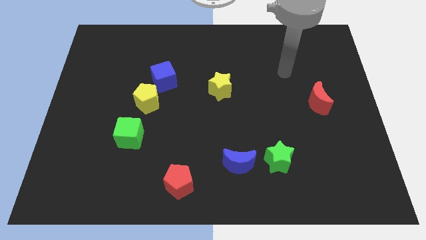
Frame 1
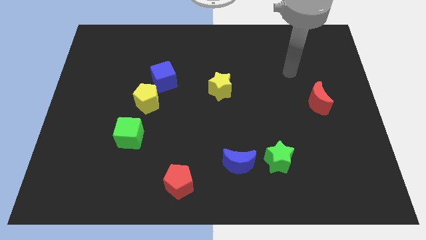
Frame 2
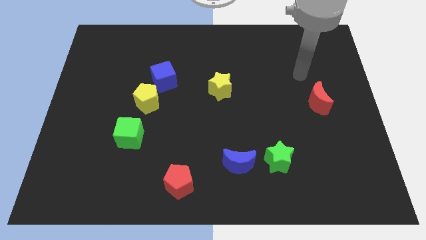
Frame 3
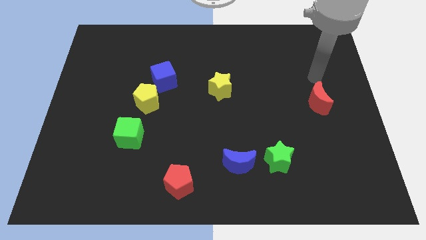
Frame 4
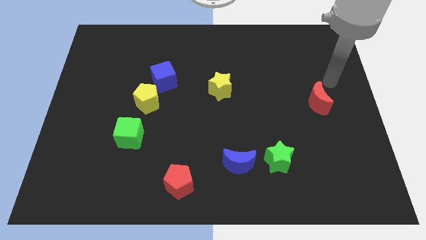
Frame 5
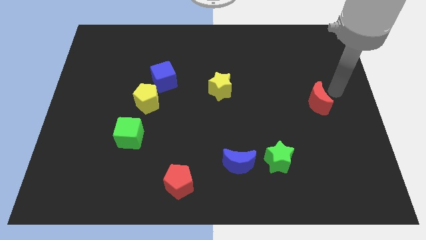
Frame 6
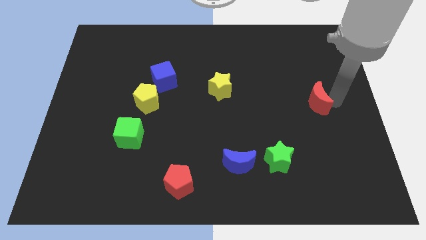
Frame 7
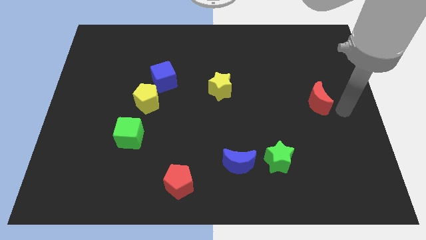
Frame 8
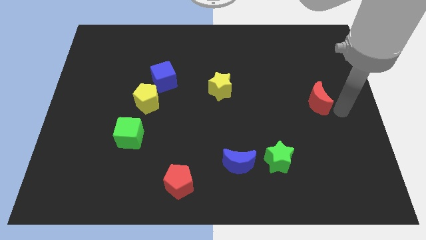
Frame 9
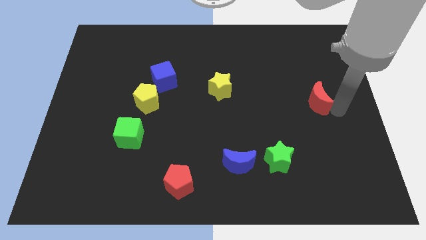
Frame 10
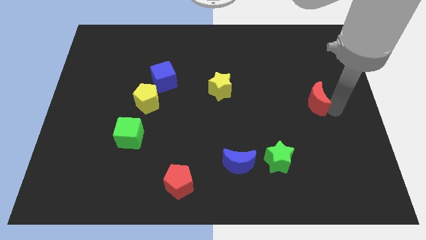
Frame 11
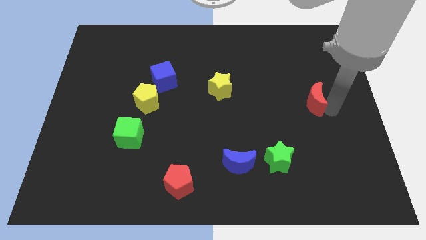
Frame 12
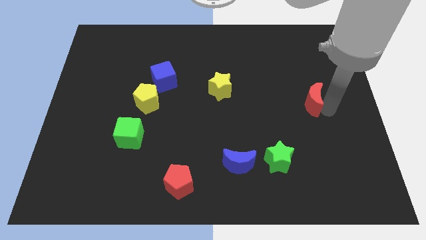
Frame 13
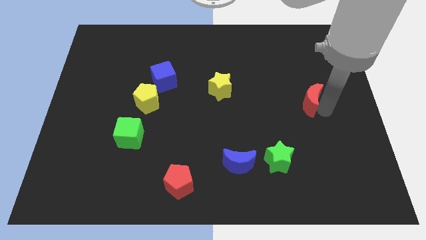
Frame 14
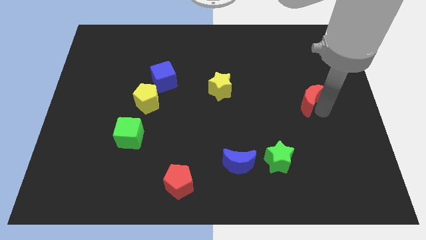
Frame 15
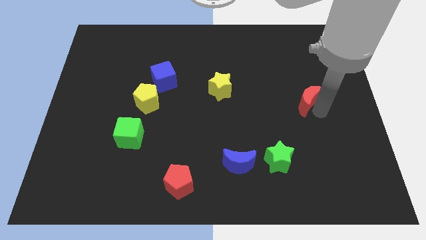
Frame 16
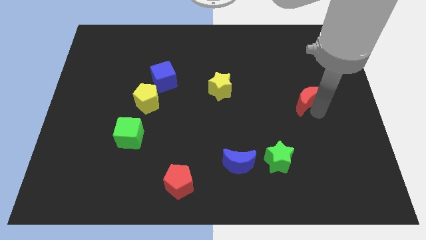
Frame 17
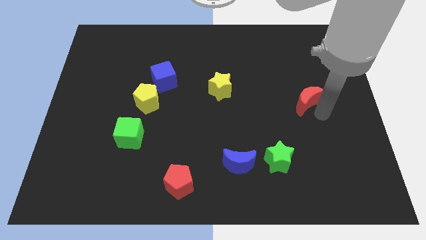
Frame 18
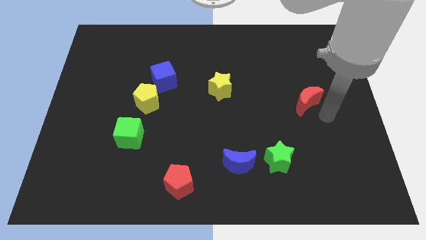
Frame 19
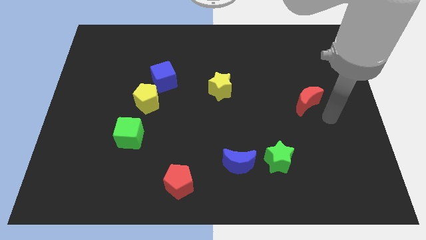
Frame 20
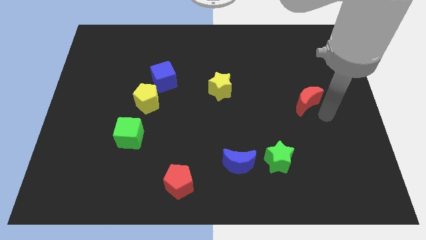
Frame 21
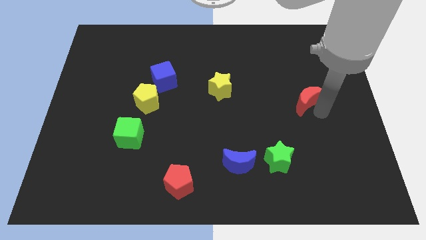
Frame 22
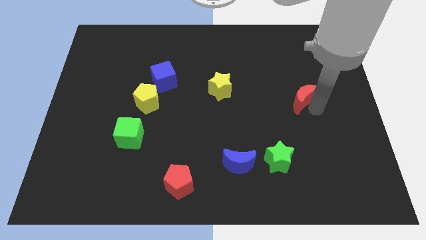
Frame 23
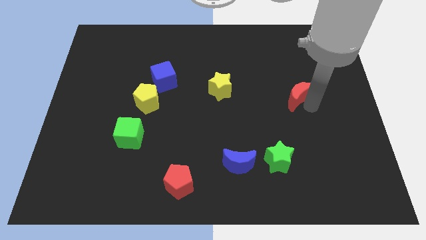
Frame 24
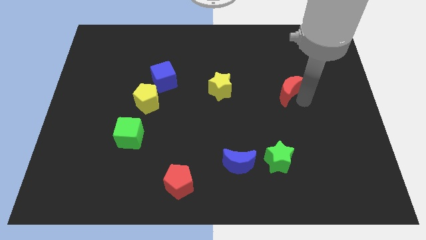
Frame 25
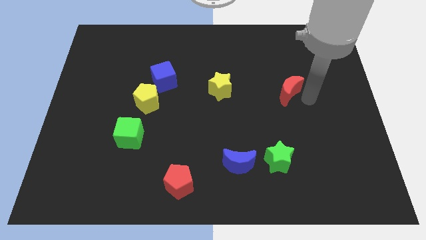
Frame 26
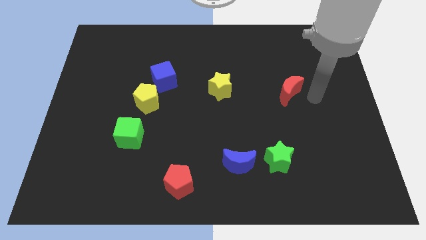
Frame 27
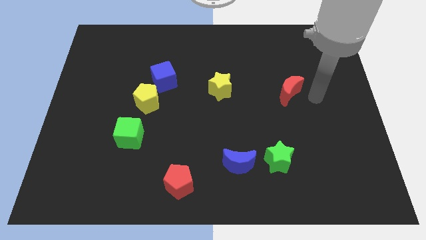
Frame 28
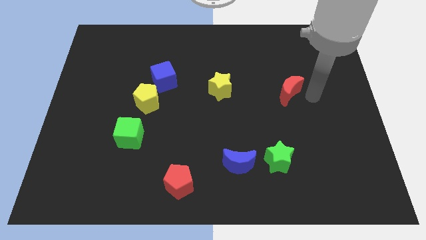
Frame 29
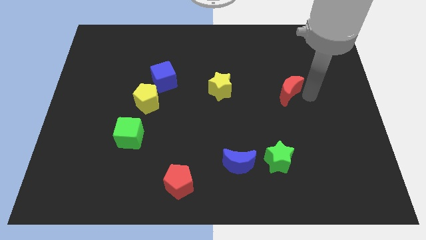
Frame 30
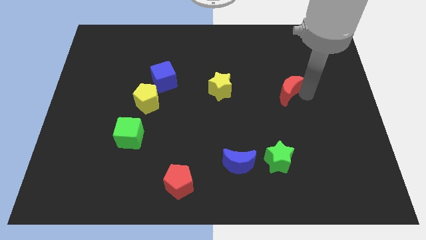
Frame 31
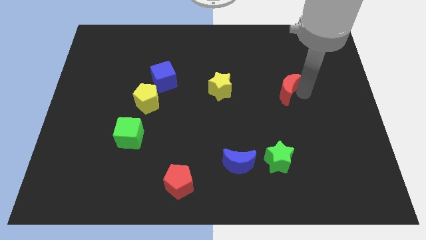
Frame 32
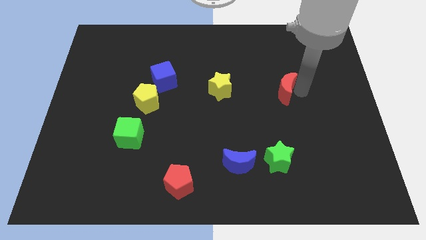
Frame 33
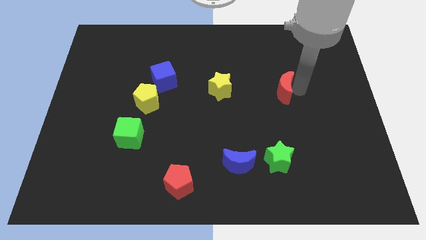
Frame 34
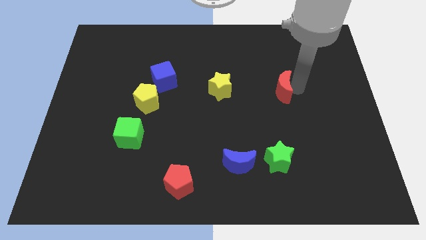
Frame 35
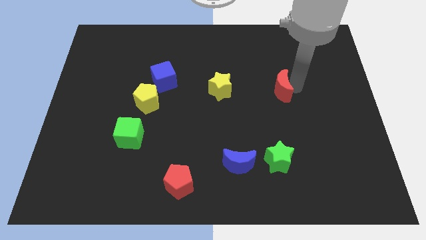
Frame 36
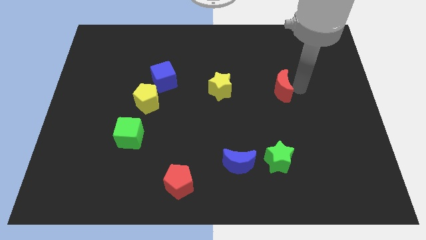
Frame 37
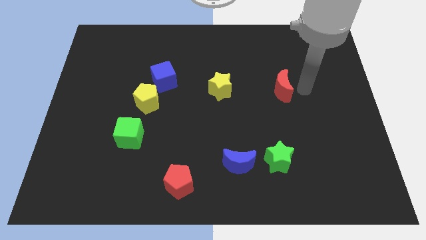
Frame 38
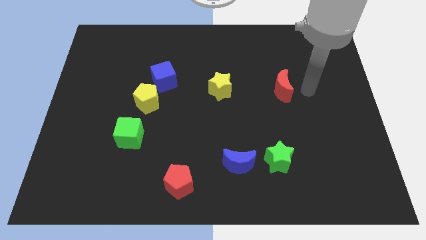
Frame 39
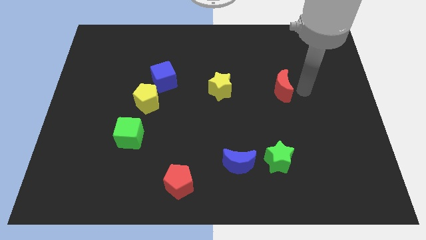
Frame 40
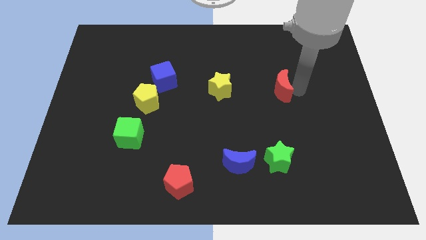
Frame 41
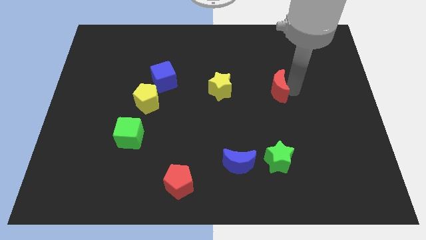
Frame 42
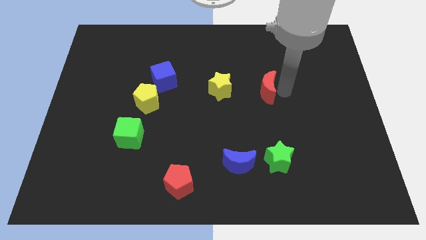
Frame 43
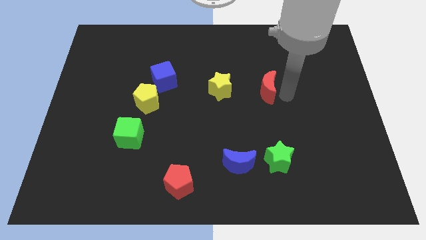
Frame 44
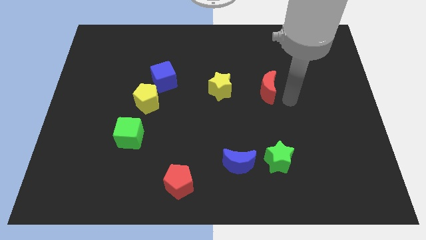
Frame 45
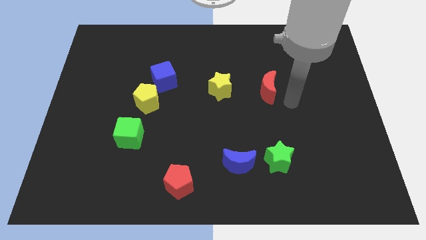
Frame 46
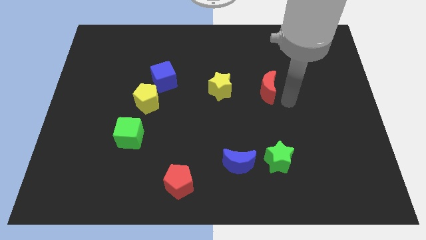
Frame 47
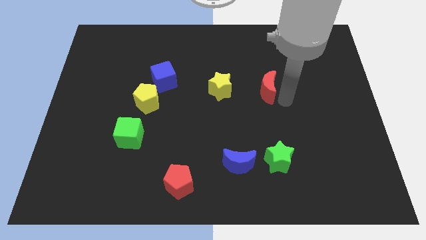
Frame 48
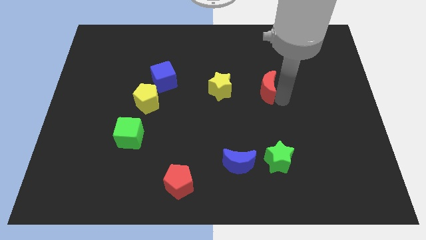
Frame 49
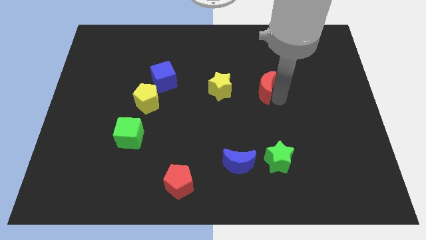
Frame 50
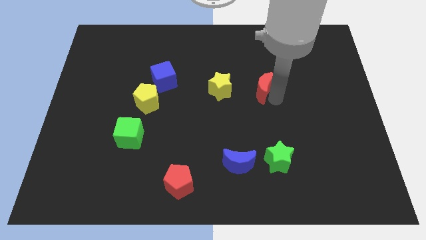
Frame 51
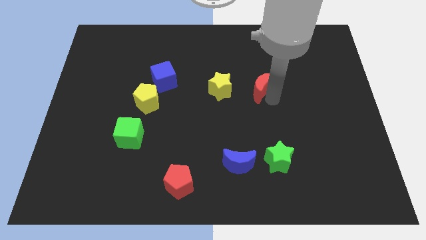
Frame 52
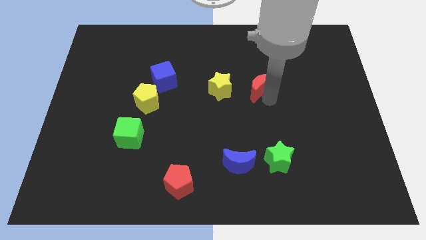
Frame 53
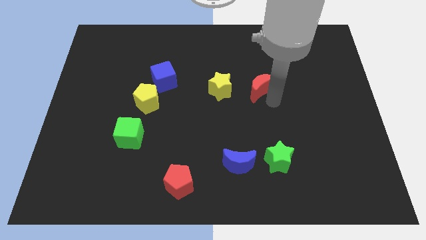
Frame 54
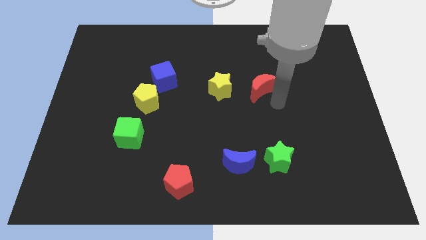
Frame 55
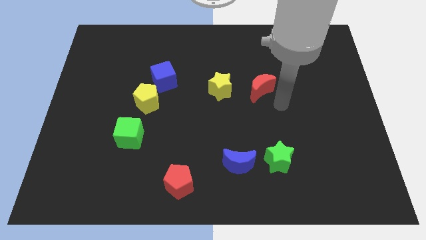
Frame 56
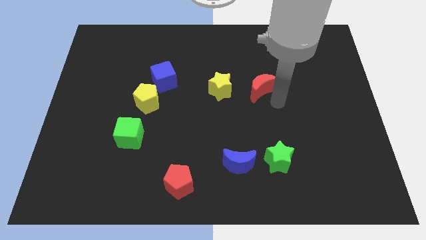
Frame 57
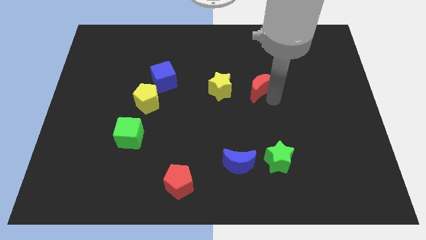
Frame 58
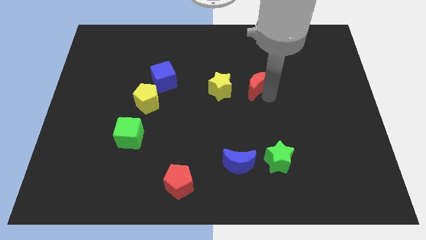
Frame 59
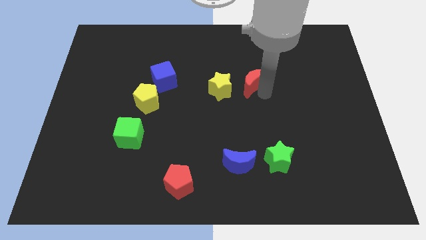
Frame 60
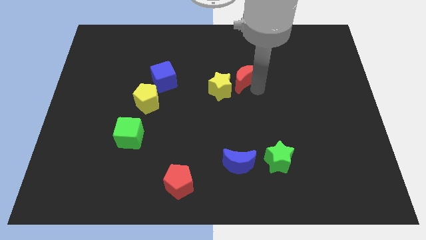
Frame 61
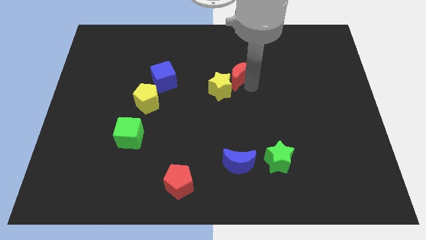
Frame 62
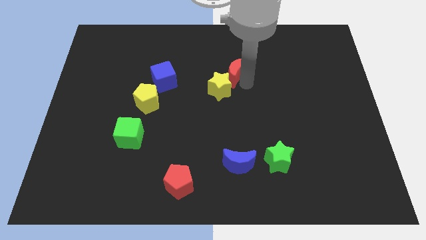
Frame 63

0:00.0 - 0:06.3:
slide the red moon to the top side of the yellow star

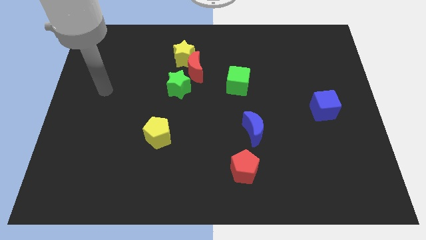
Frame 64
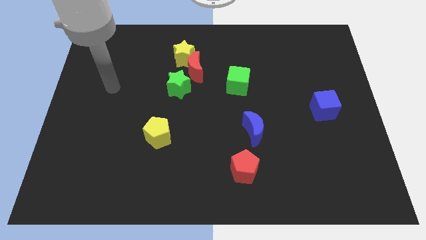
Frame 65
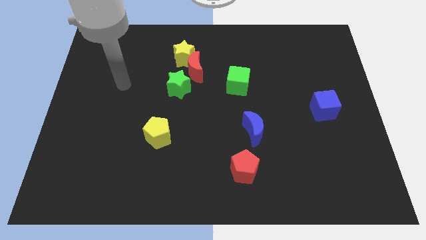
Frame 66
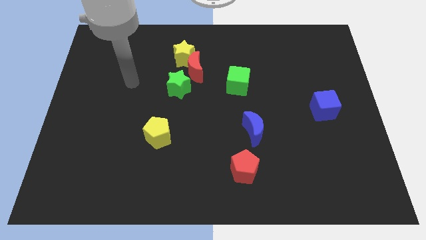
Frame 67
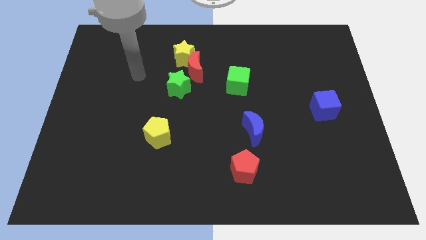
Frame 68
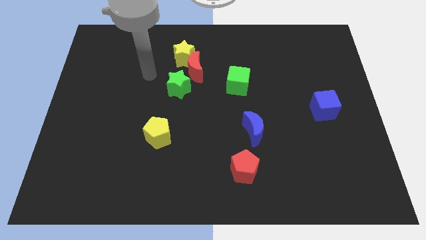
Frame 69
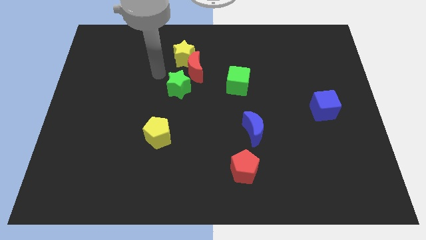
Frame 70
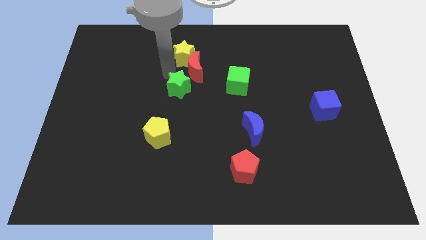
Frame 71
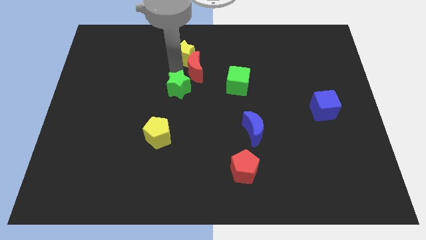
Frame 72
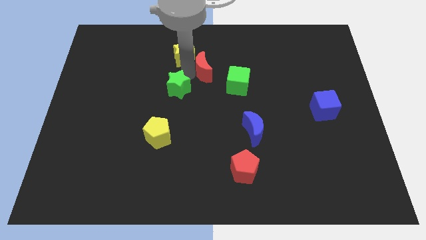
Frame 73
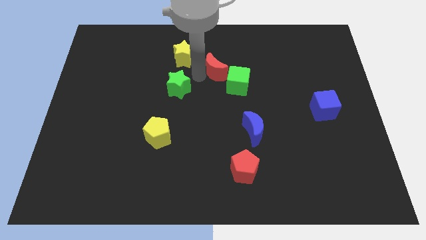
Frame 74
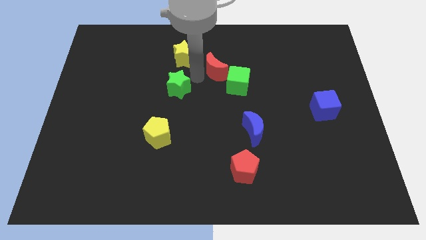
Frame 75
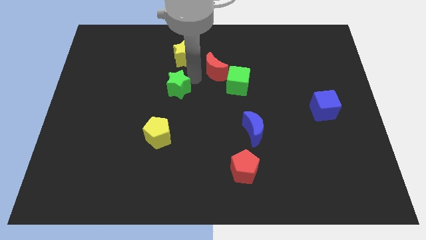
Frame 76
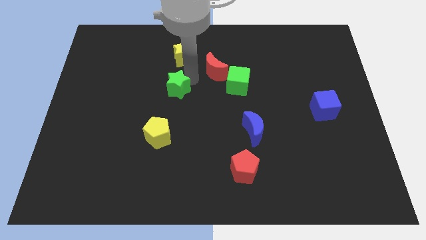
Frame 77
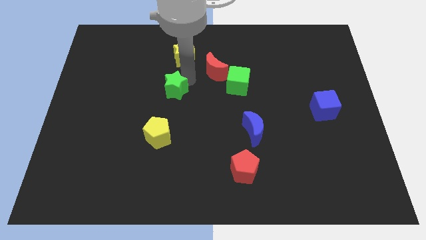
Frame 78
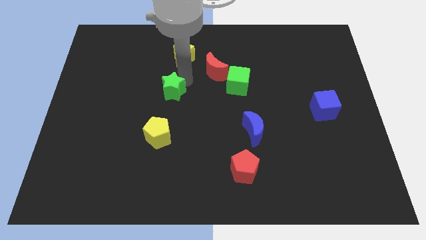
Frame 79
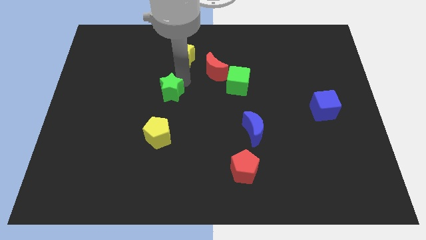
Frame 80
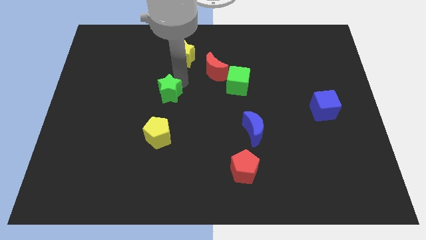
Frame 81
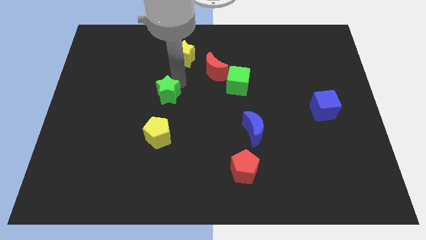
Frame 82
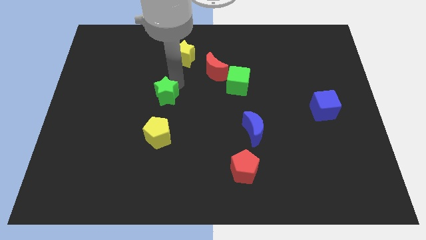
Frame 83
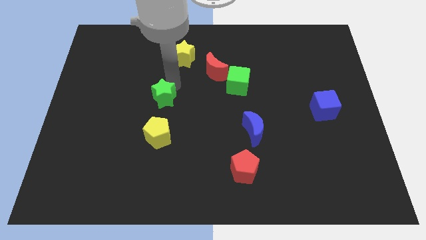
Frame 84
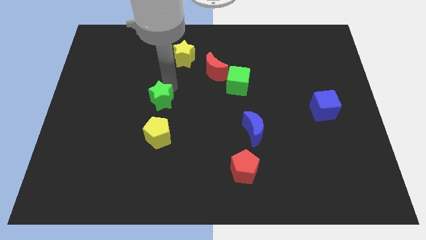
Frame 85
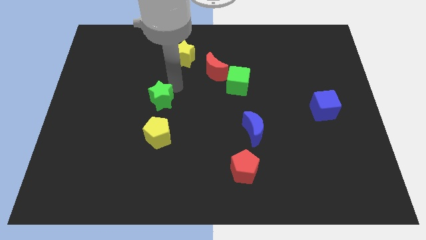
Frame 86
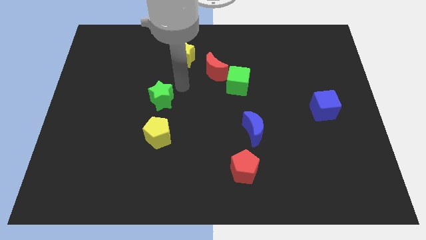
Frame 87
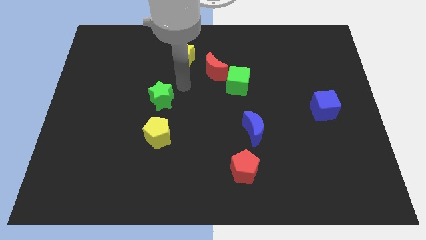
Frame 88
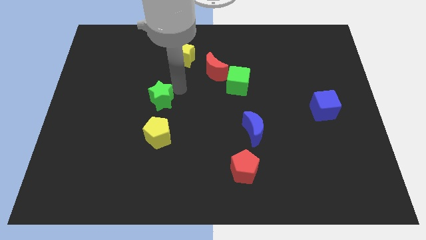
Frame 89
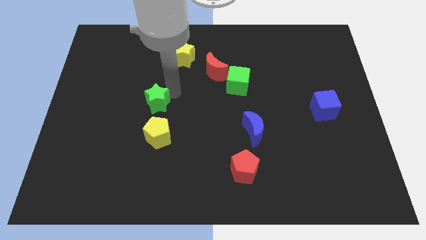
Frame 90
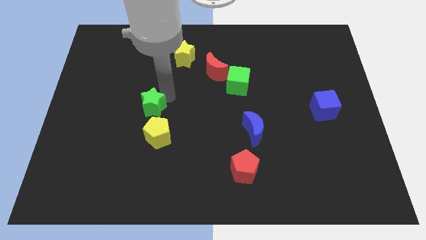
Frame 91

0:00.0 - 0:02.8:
slide the green star to the top left side of the yellow pentagon
